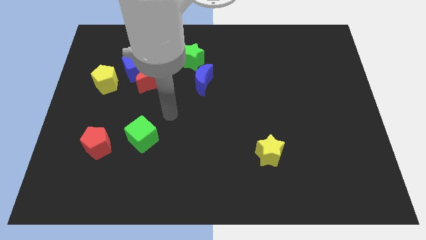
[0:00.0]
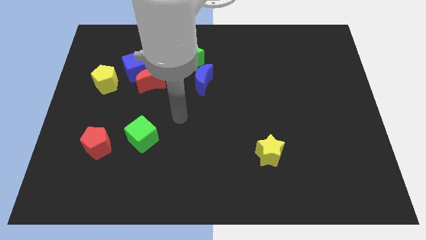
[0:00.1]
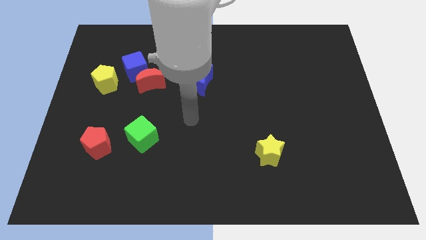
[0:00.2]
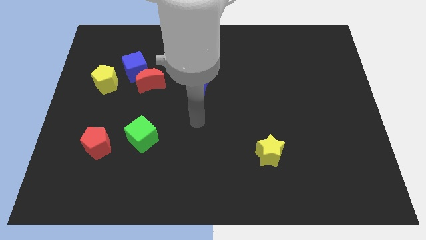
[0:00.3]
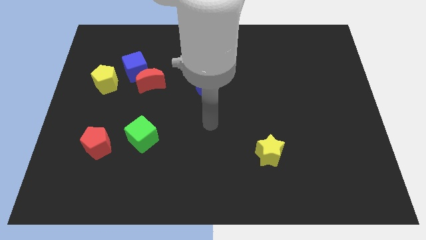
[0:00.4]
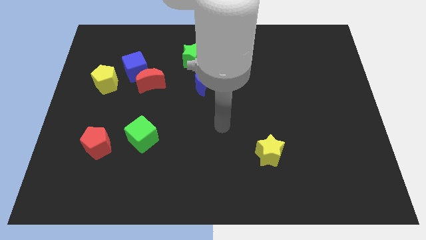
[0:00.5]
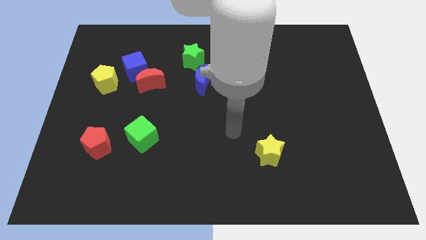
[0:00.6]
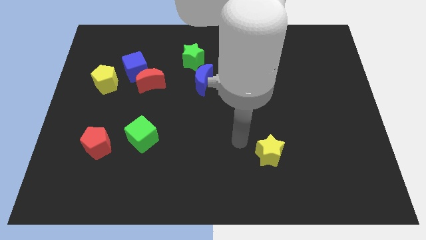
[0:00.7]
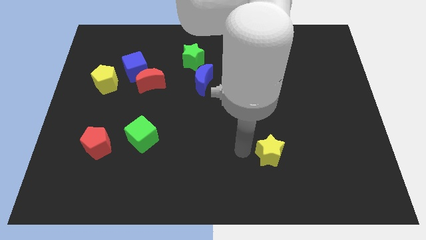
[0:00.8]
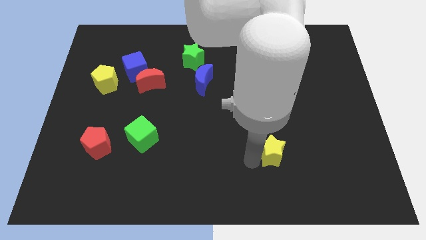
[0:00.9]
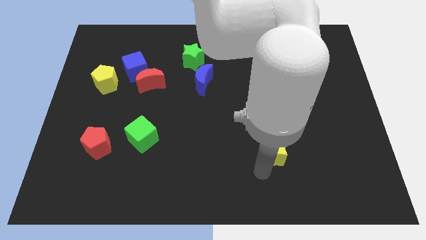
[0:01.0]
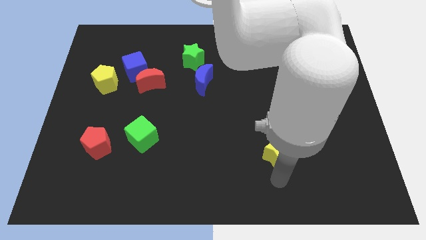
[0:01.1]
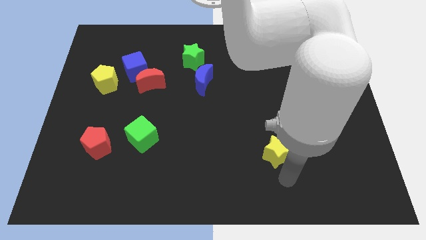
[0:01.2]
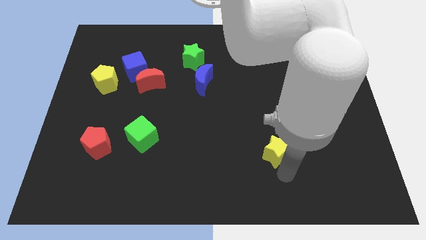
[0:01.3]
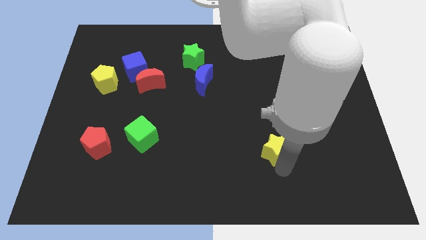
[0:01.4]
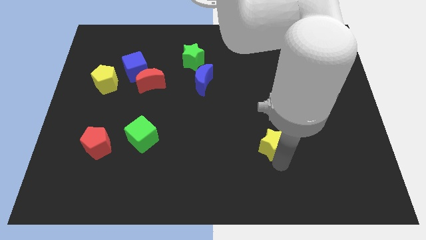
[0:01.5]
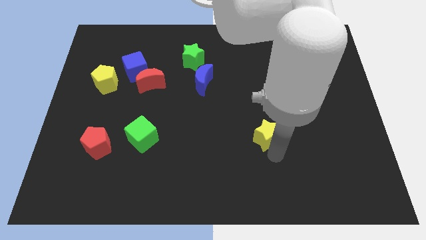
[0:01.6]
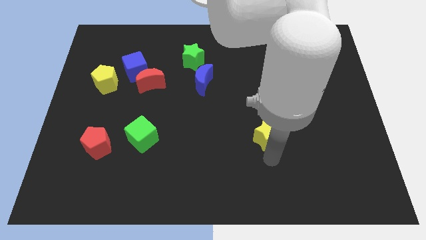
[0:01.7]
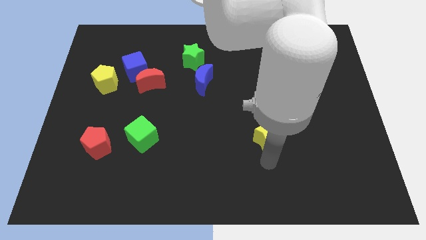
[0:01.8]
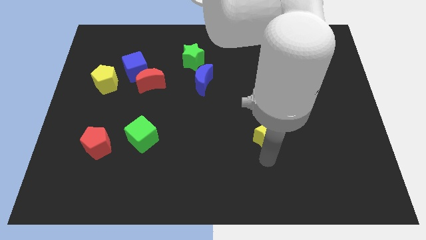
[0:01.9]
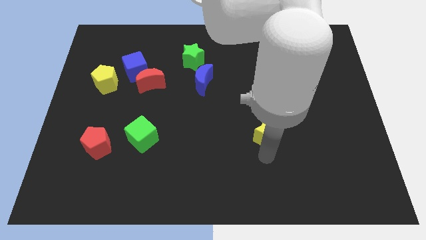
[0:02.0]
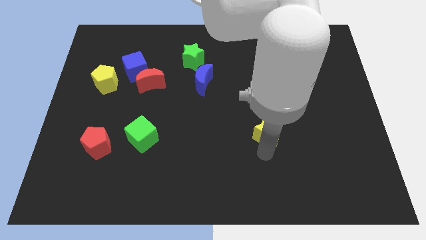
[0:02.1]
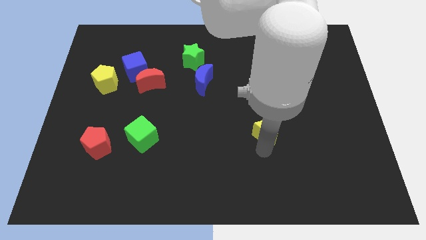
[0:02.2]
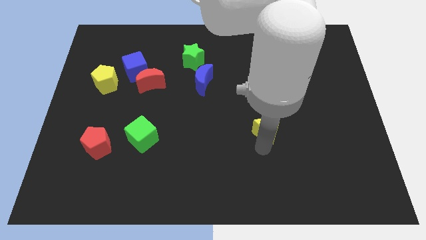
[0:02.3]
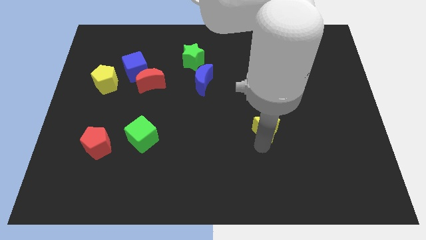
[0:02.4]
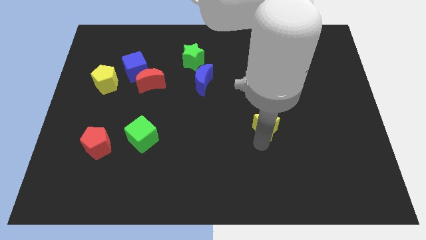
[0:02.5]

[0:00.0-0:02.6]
push the yellow star up slightly

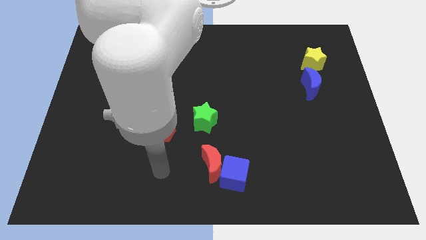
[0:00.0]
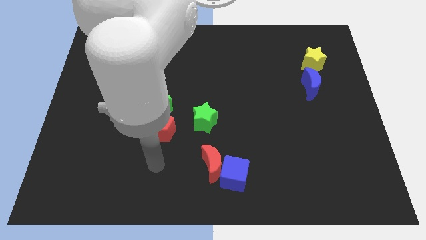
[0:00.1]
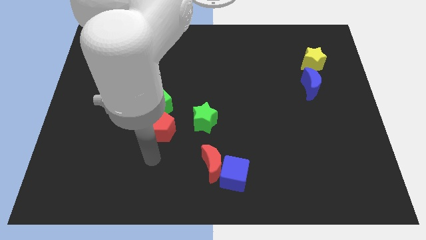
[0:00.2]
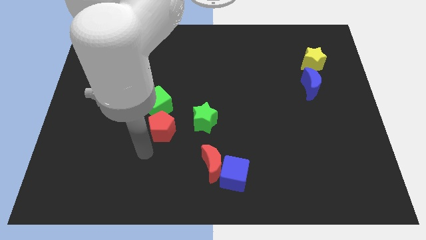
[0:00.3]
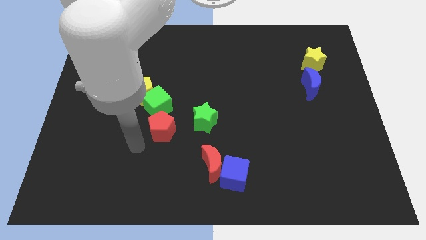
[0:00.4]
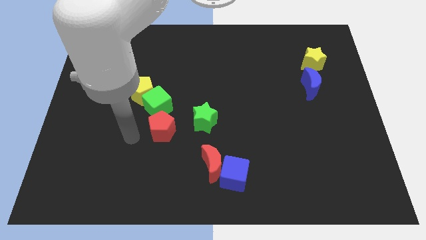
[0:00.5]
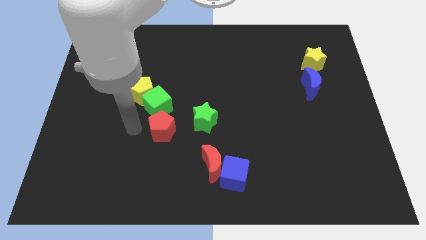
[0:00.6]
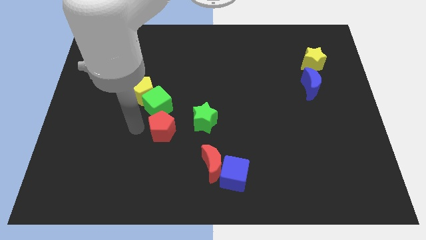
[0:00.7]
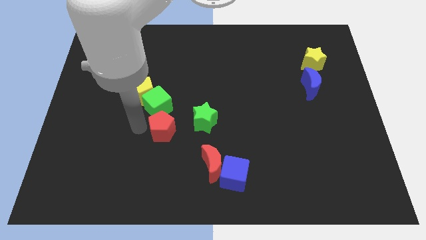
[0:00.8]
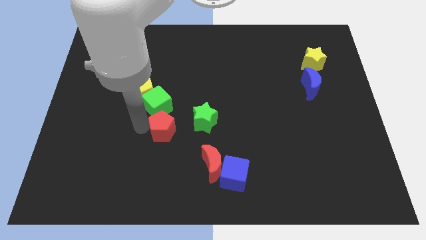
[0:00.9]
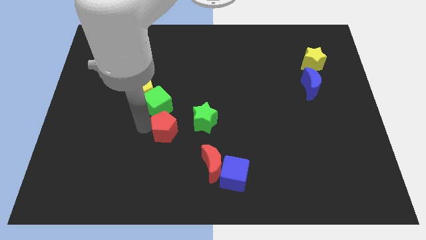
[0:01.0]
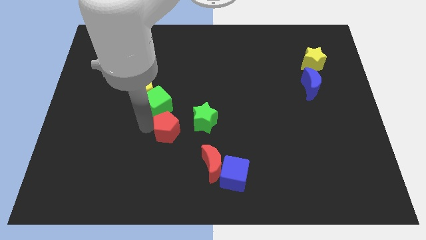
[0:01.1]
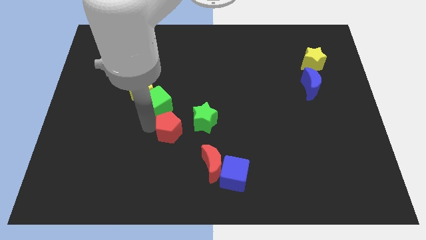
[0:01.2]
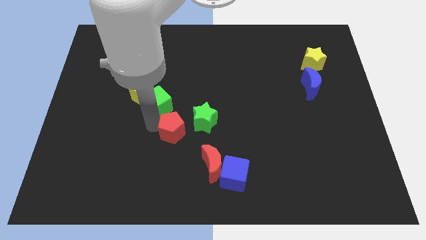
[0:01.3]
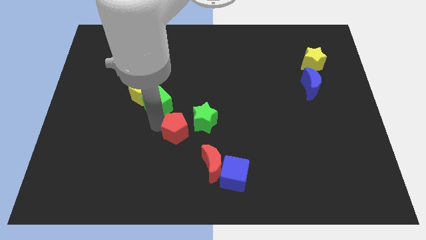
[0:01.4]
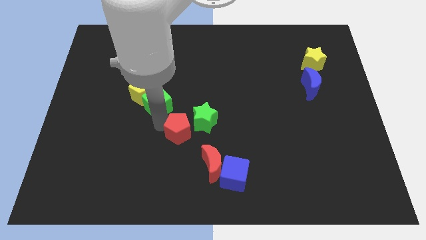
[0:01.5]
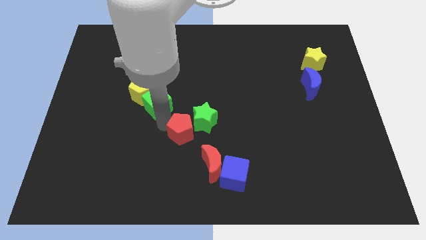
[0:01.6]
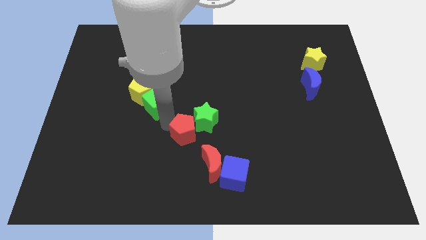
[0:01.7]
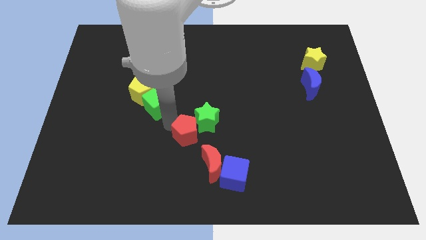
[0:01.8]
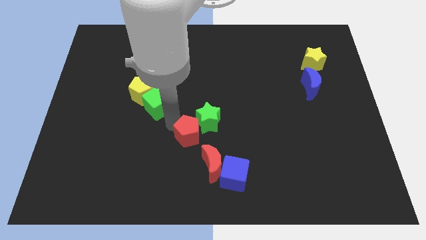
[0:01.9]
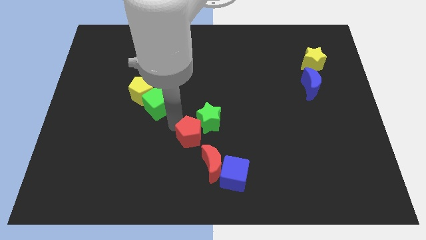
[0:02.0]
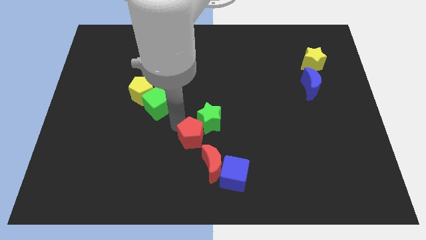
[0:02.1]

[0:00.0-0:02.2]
move the red pentagon a little to the right

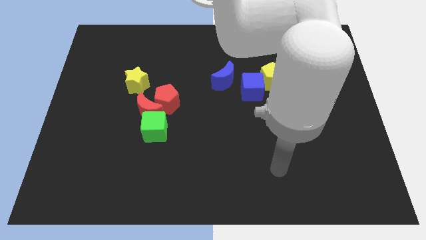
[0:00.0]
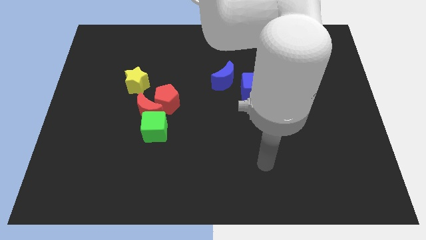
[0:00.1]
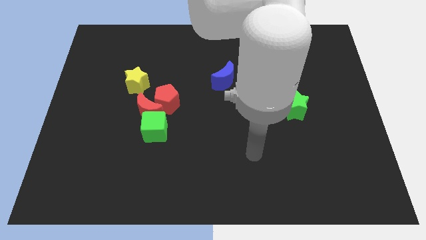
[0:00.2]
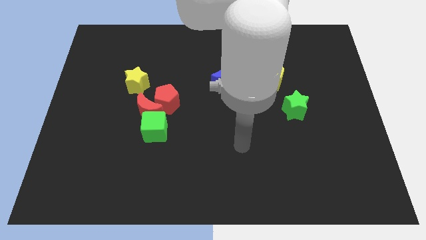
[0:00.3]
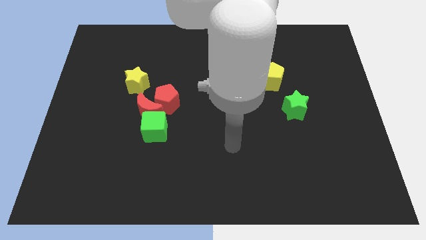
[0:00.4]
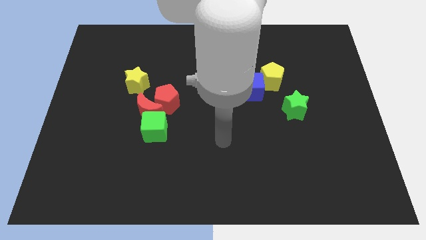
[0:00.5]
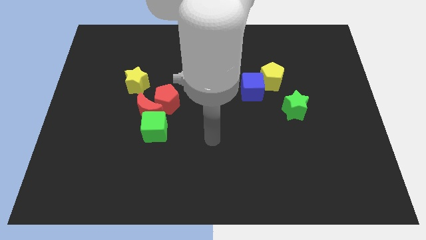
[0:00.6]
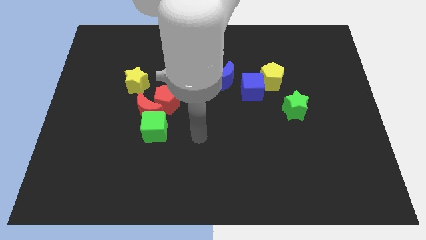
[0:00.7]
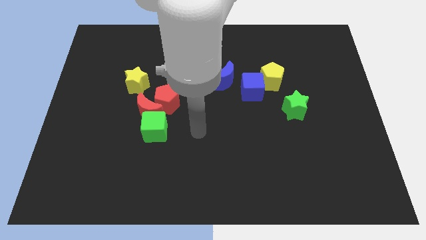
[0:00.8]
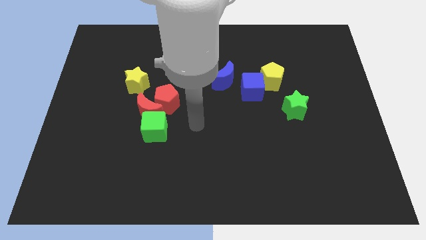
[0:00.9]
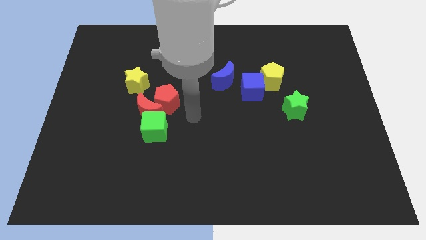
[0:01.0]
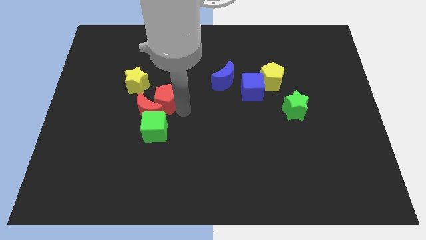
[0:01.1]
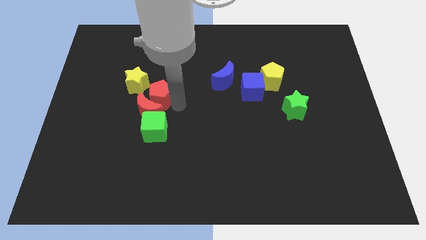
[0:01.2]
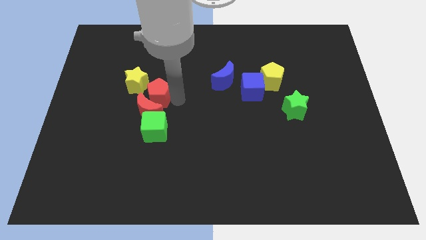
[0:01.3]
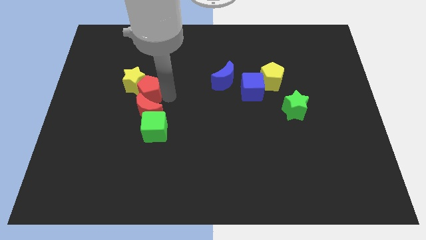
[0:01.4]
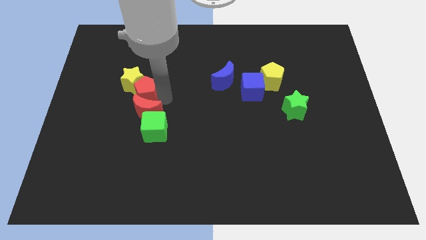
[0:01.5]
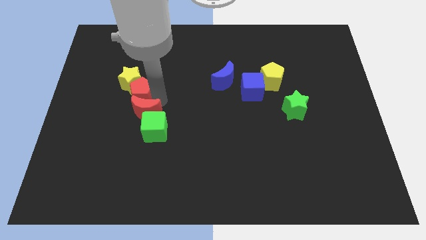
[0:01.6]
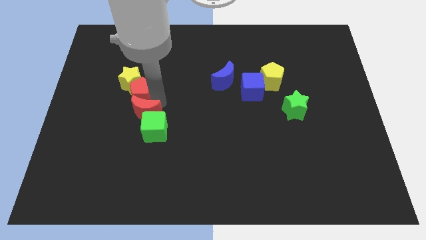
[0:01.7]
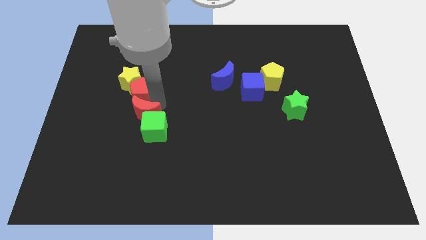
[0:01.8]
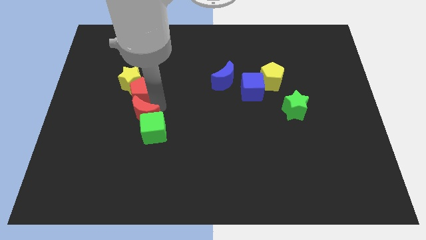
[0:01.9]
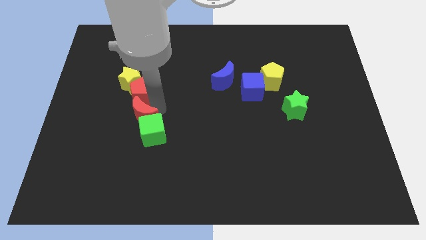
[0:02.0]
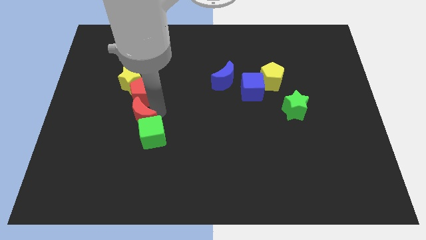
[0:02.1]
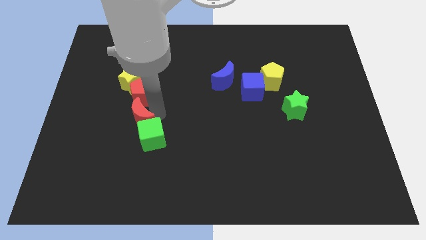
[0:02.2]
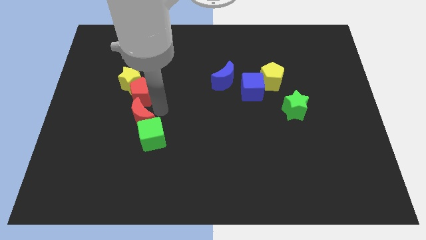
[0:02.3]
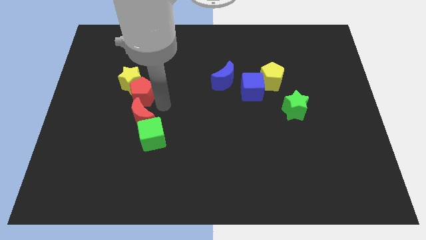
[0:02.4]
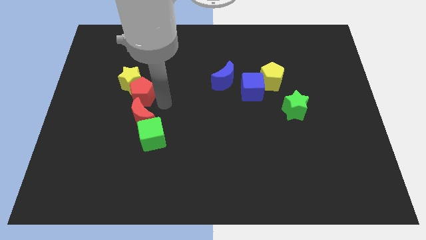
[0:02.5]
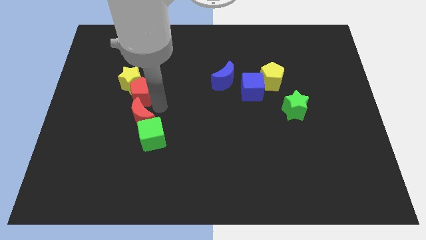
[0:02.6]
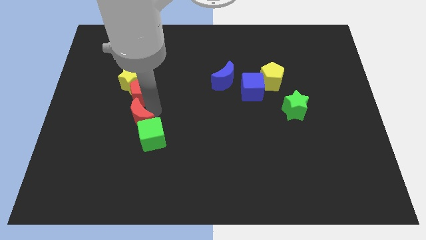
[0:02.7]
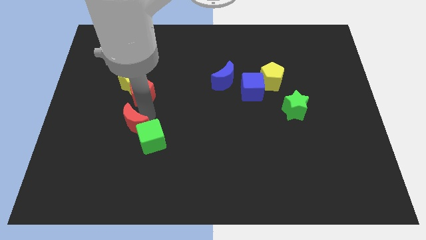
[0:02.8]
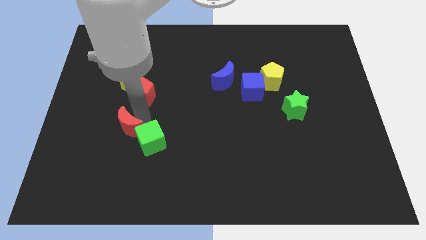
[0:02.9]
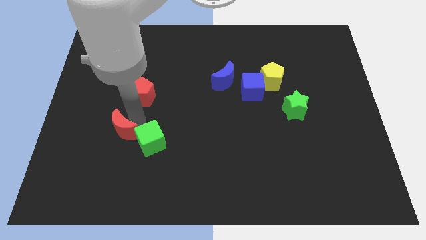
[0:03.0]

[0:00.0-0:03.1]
slightly push the red moon downwards and to the left diagonally

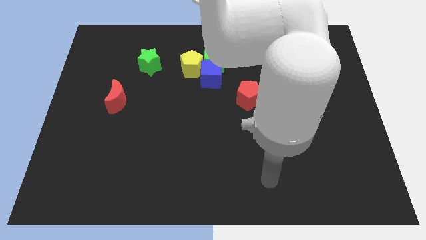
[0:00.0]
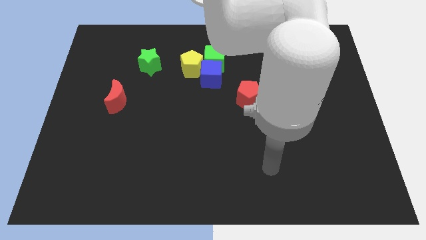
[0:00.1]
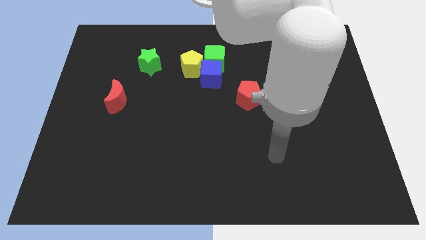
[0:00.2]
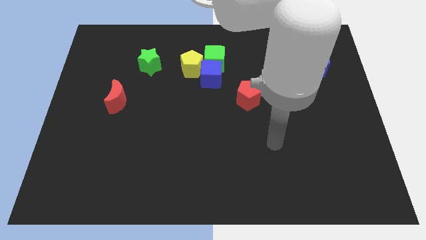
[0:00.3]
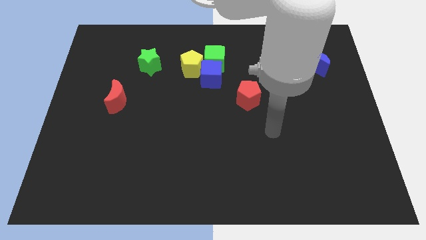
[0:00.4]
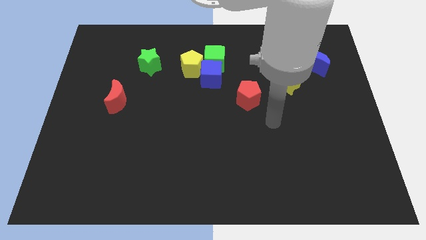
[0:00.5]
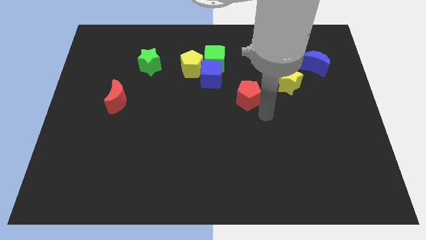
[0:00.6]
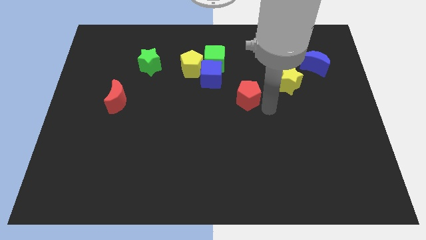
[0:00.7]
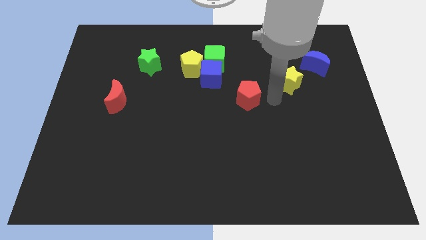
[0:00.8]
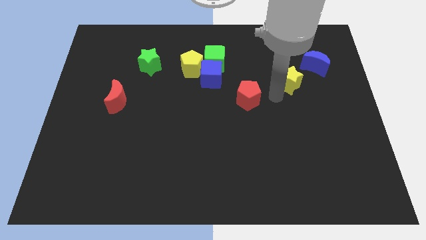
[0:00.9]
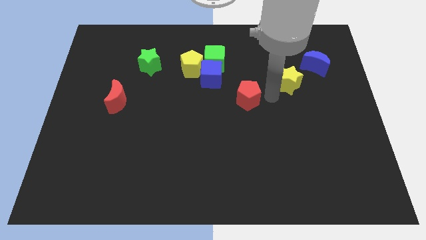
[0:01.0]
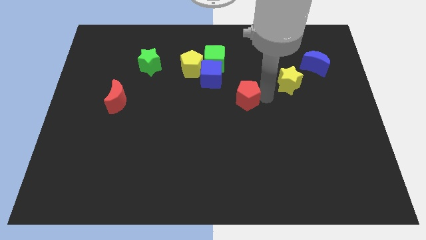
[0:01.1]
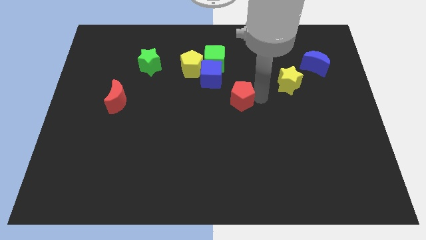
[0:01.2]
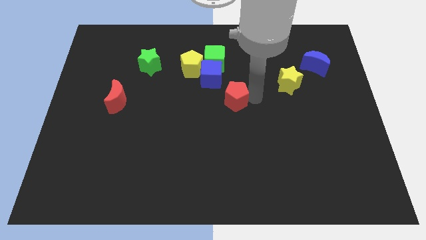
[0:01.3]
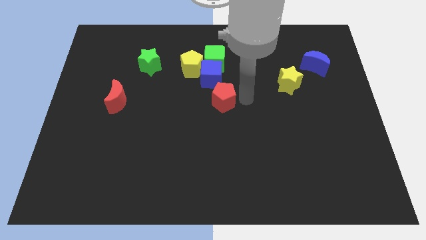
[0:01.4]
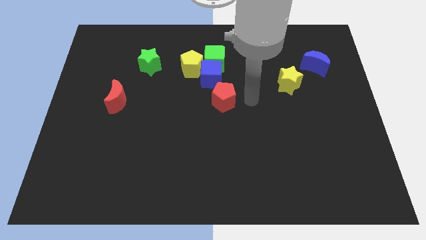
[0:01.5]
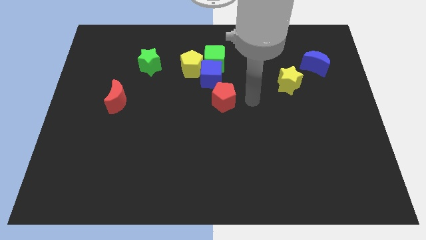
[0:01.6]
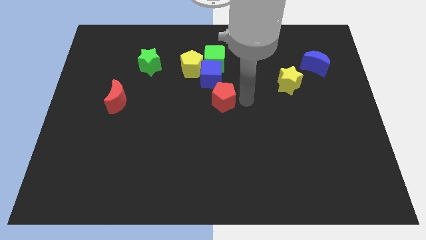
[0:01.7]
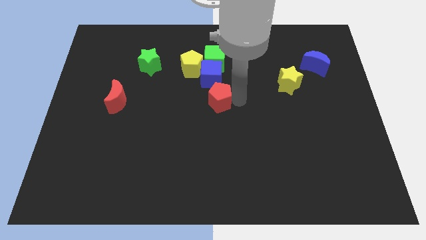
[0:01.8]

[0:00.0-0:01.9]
slightly slide the red pentagon left
